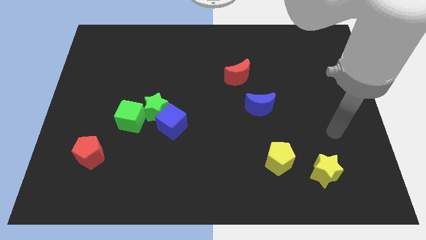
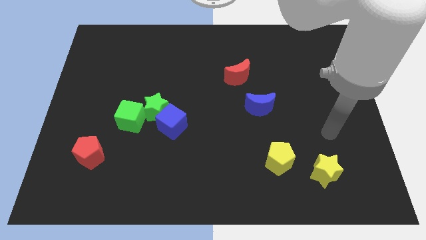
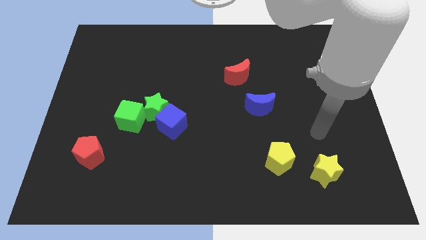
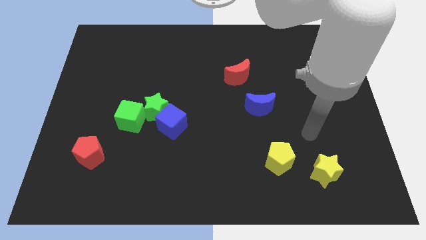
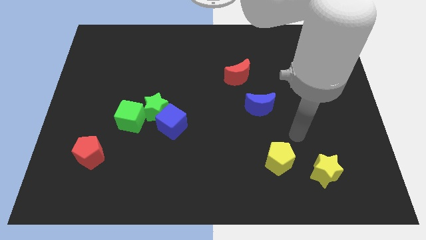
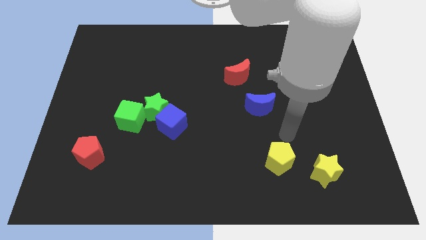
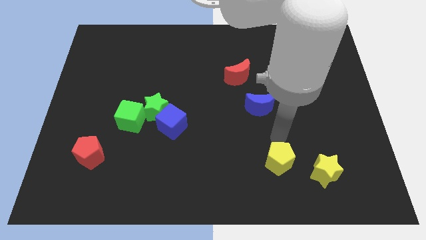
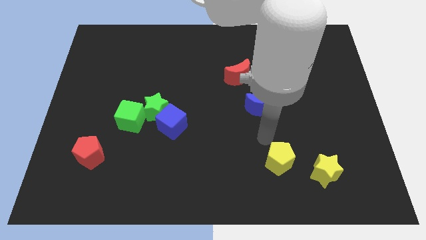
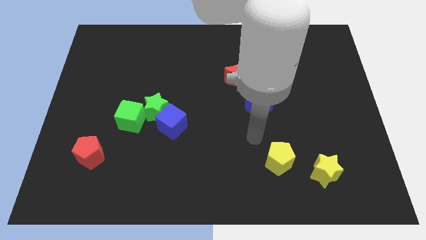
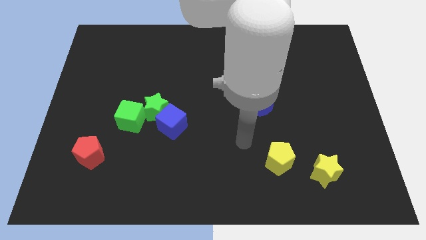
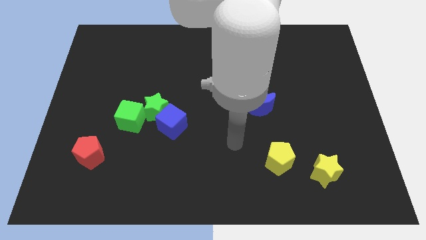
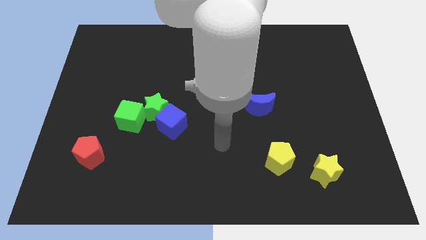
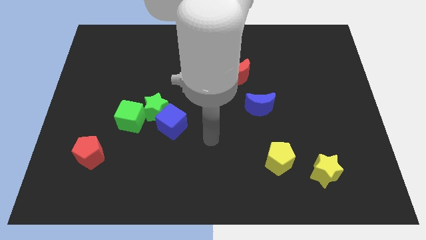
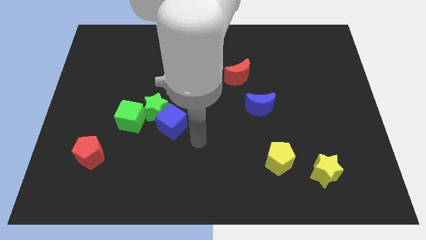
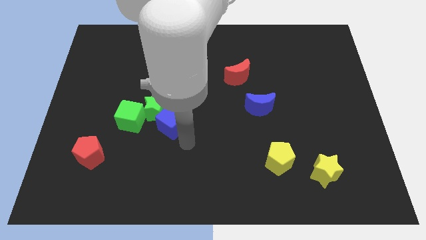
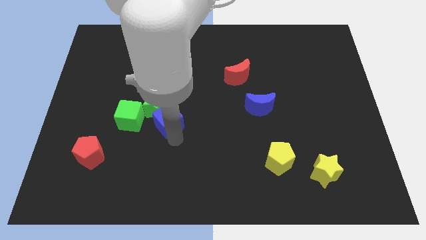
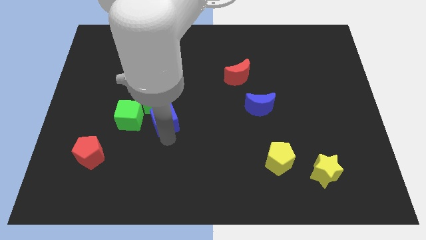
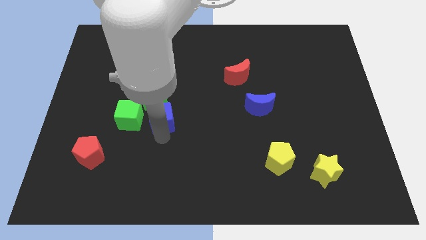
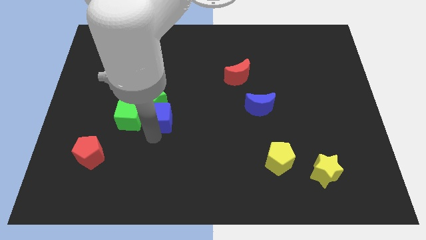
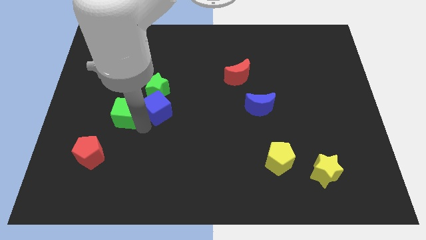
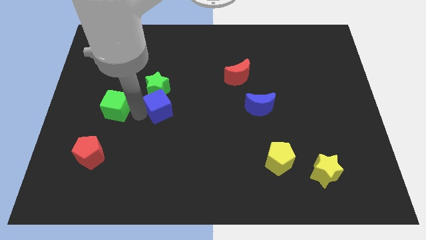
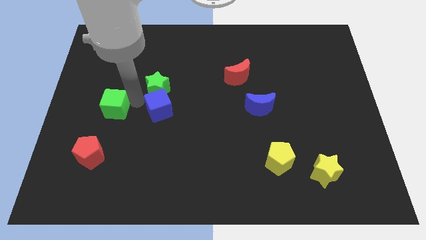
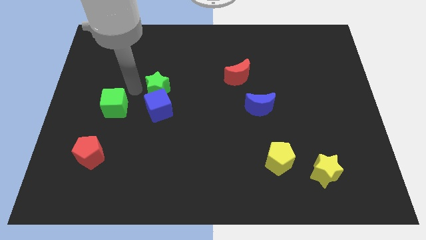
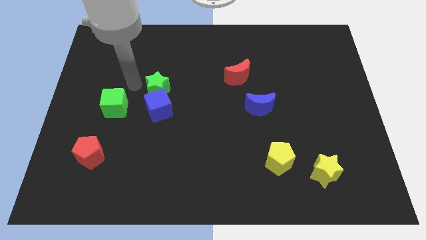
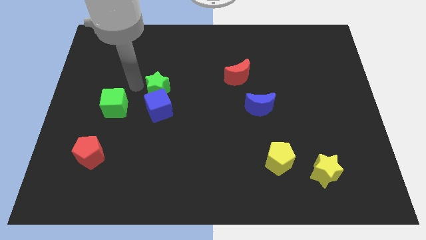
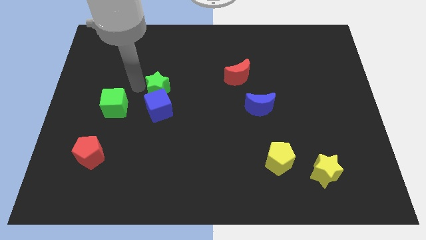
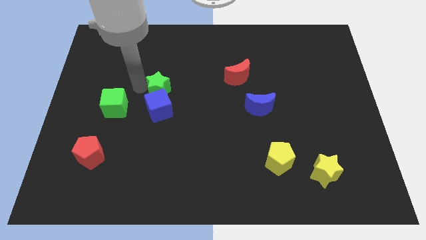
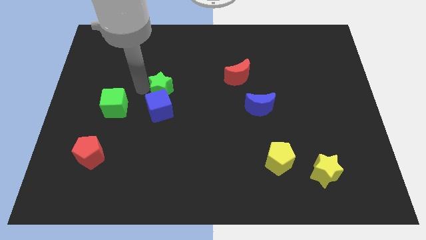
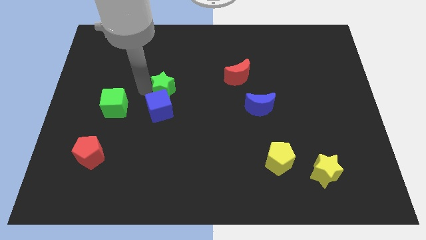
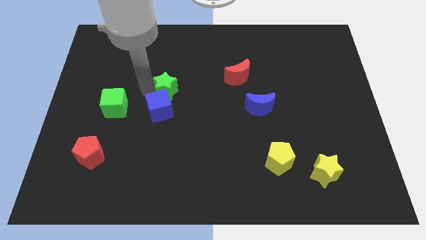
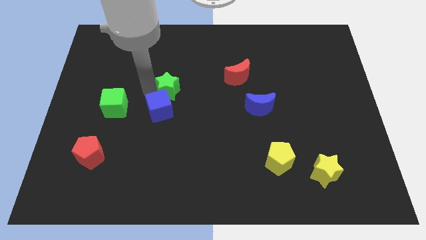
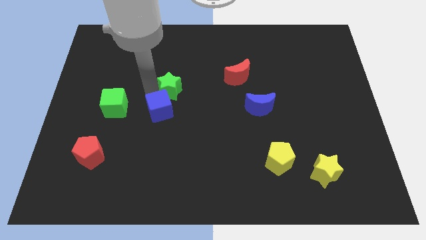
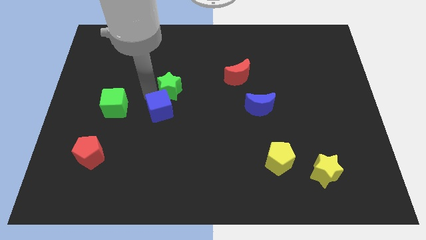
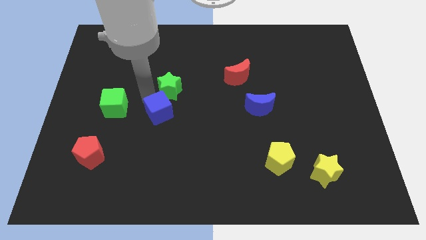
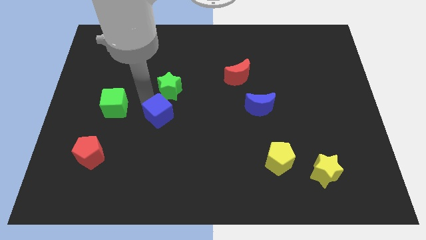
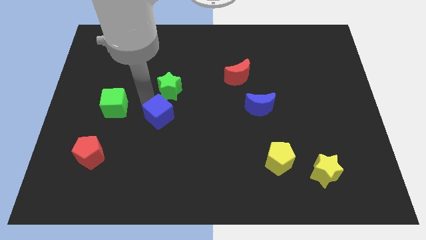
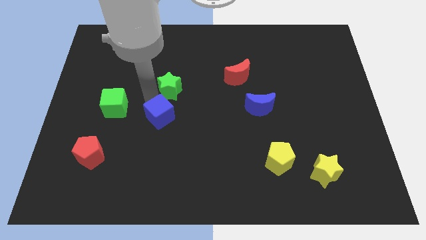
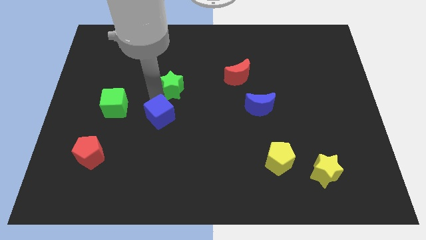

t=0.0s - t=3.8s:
pull the green star apart from the blue cube and green cube

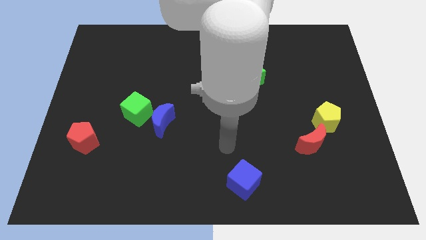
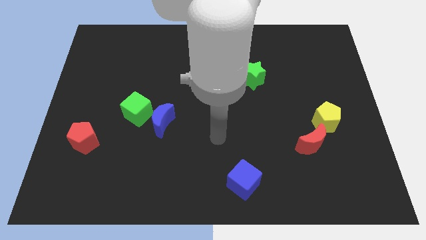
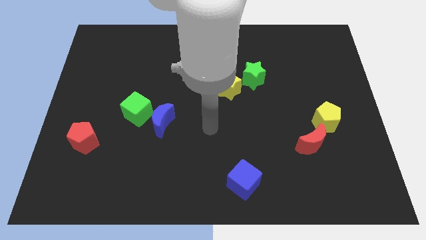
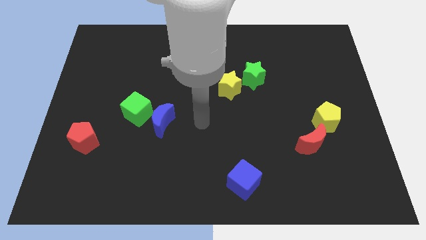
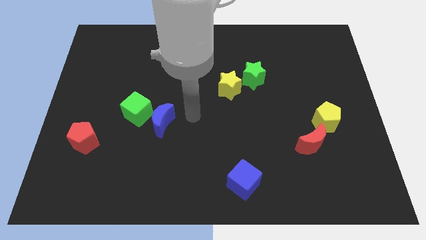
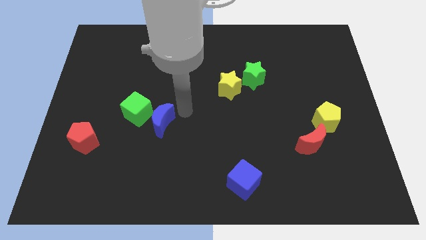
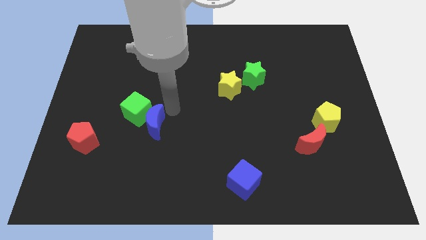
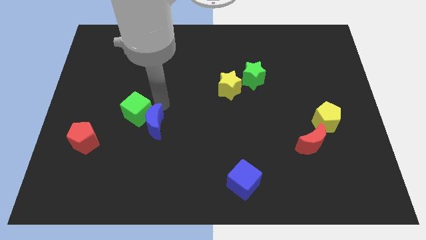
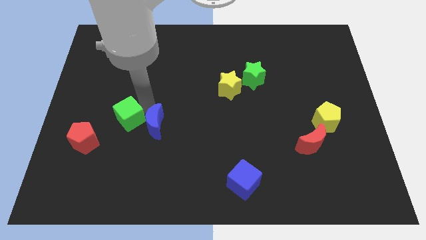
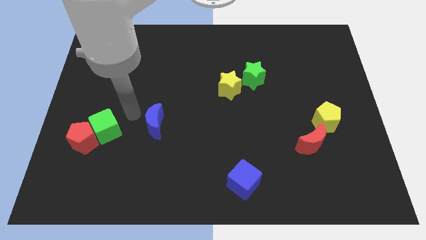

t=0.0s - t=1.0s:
separate the blue moon from the green cube

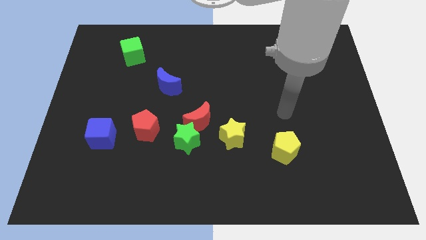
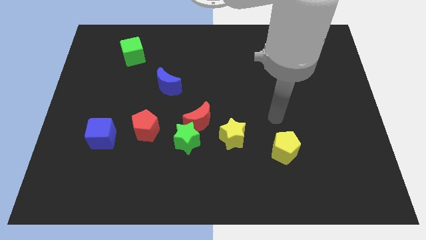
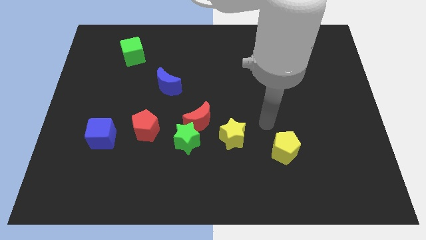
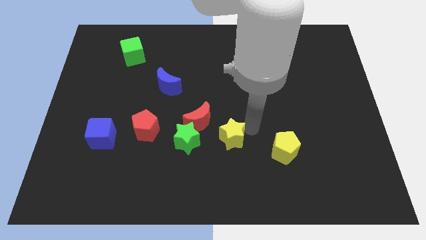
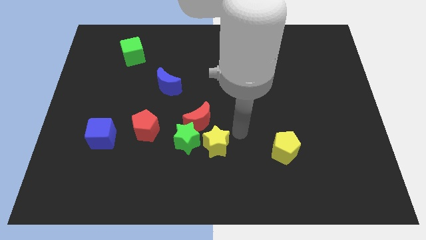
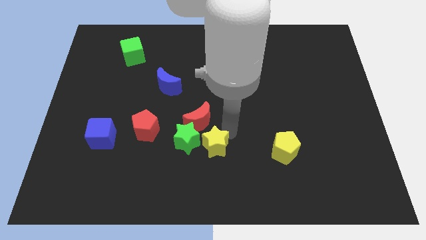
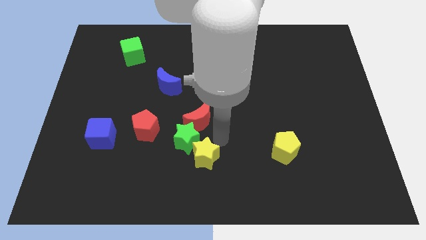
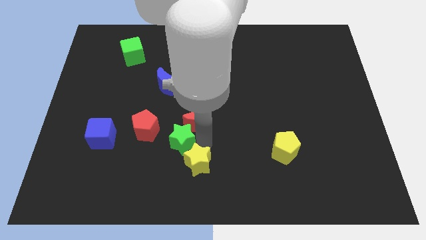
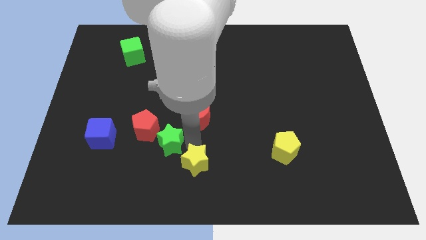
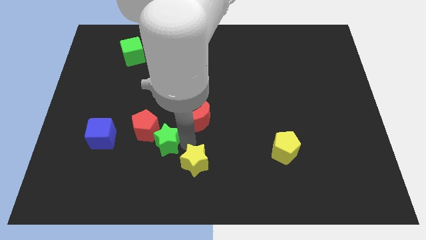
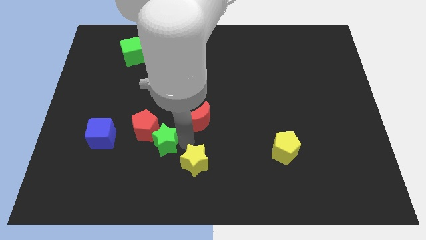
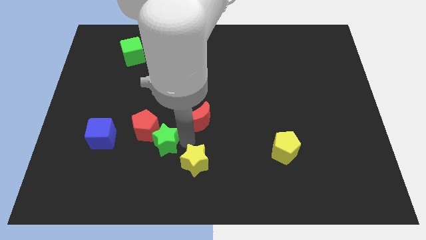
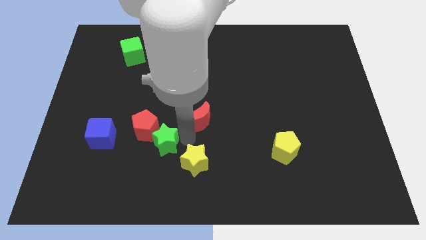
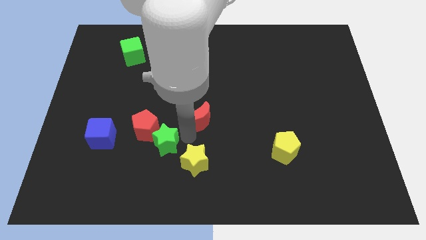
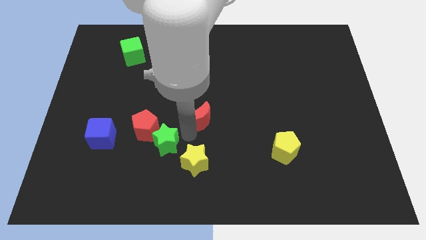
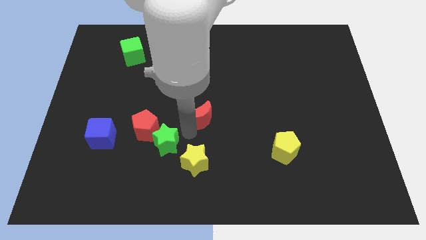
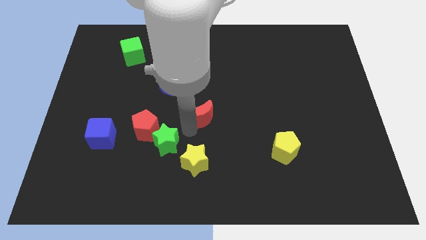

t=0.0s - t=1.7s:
separate the red moon from the green star and yellow star

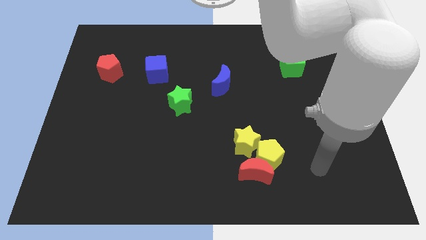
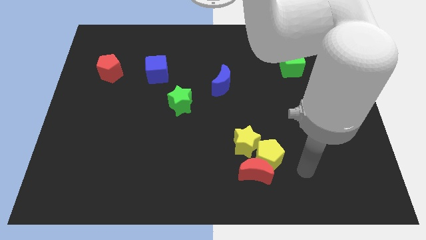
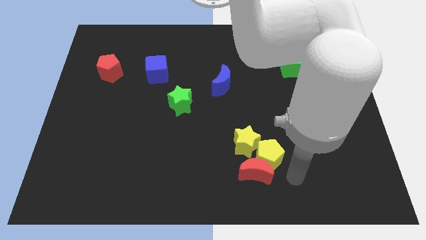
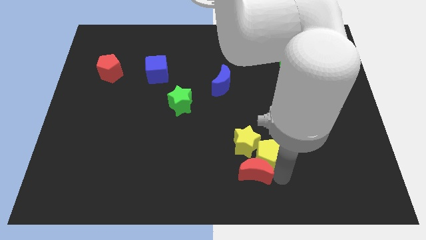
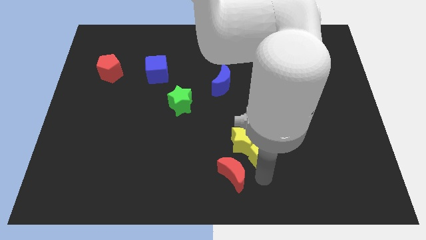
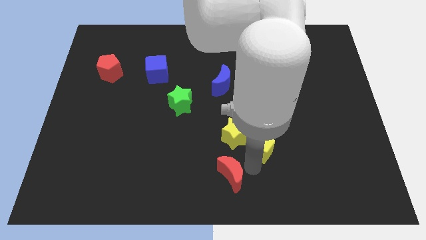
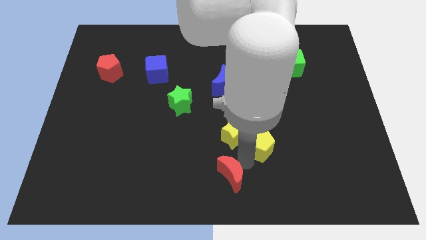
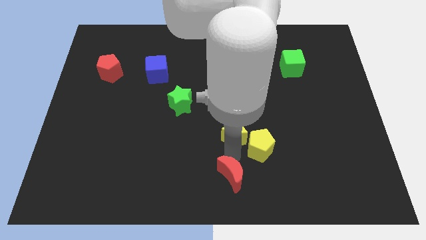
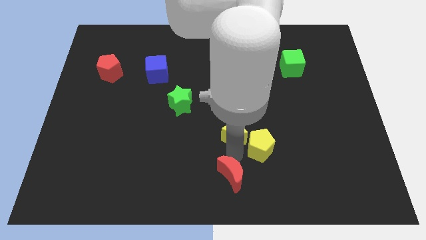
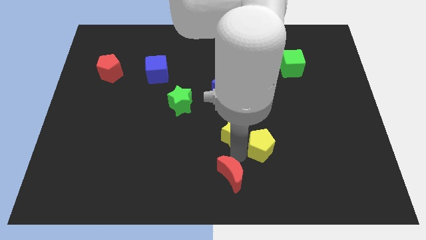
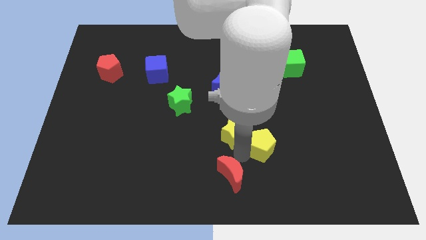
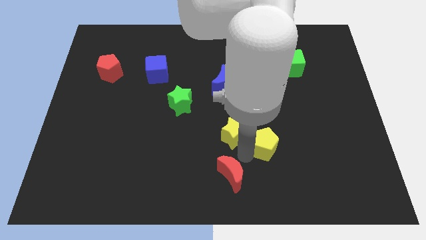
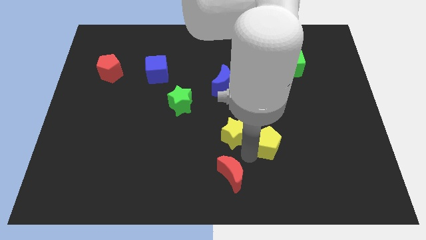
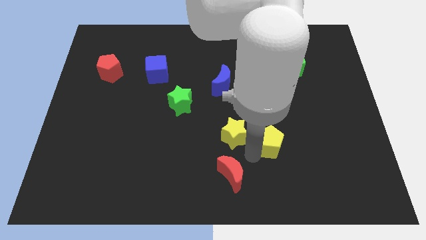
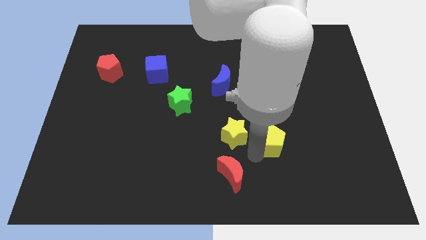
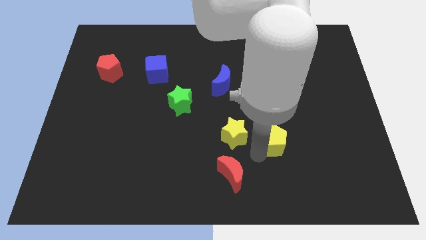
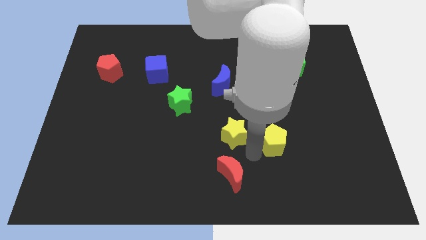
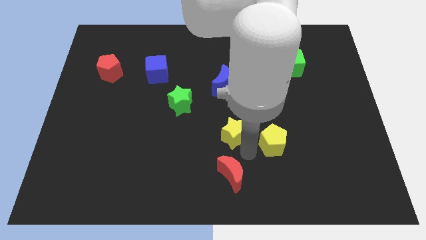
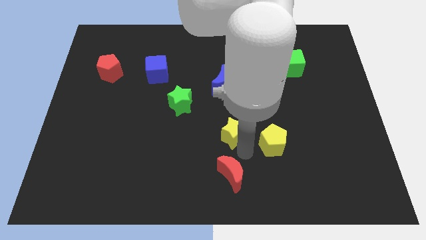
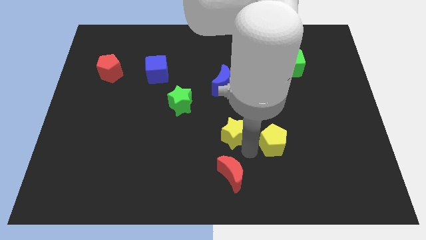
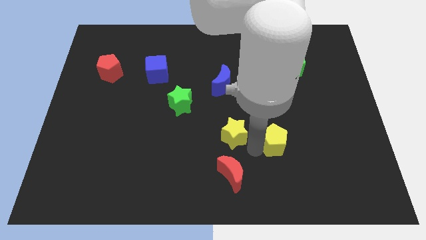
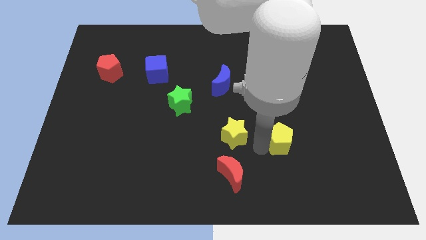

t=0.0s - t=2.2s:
separate the yellow pentagon from the red moon and yellow star

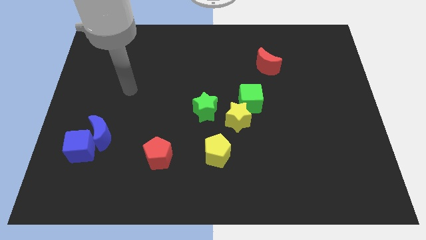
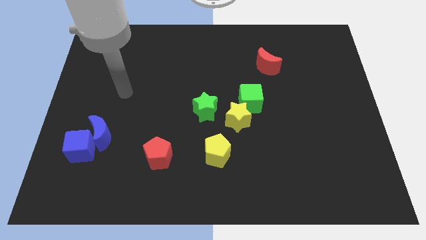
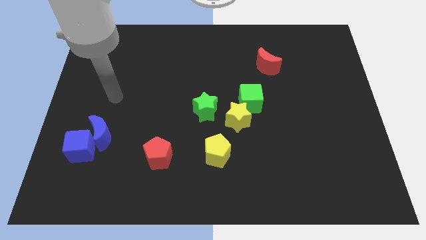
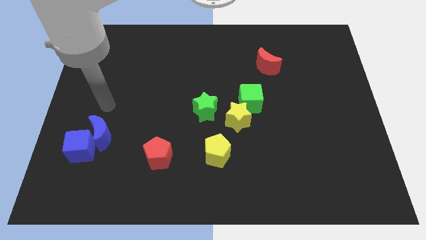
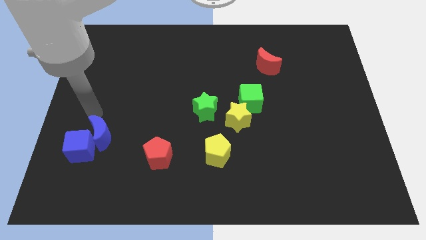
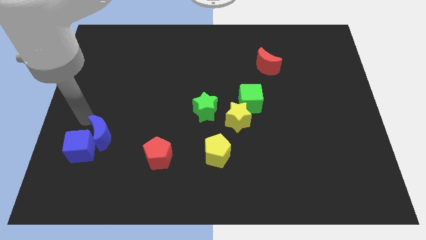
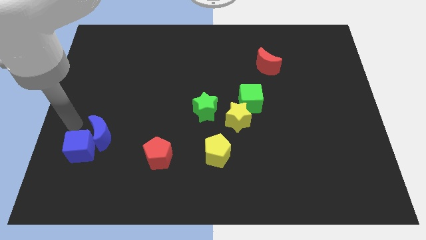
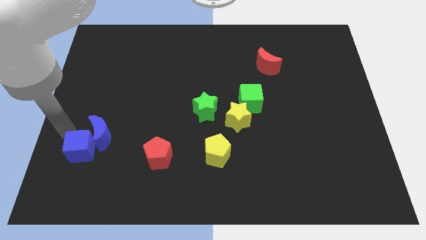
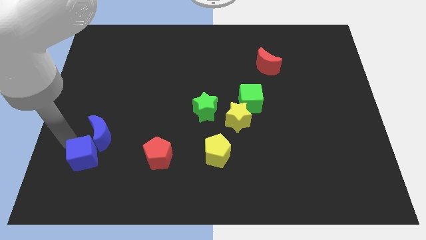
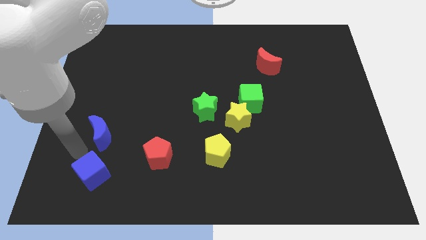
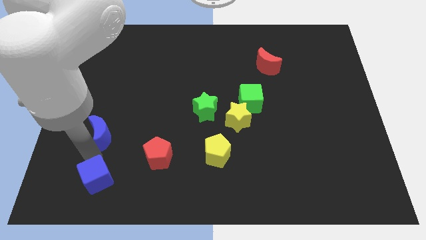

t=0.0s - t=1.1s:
pull the blue moon apart from the blue cube
